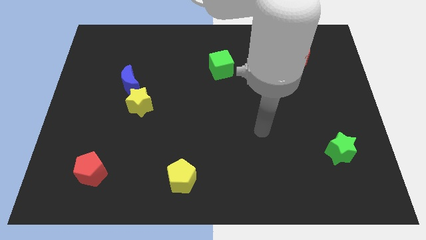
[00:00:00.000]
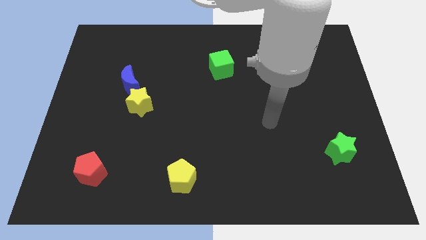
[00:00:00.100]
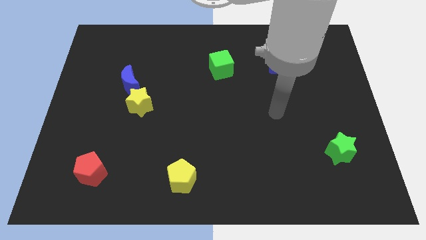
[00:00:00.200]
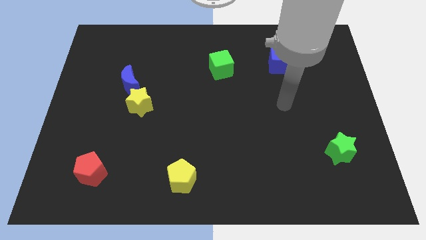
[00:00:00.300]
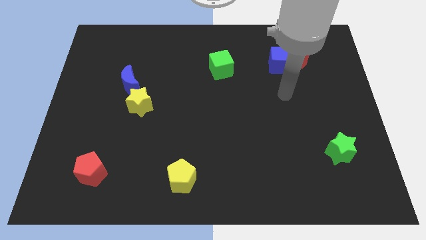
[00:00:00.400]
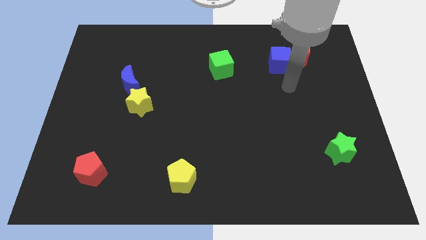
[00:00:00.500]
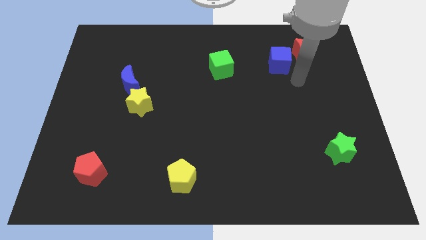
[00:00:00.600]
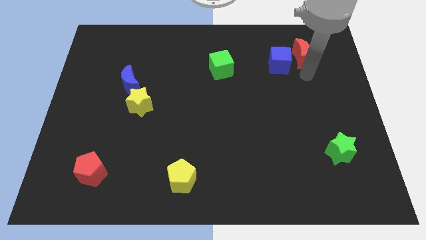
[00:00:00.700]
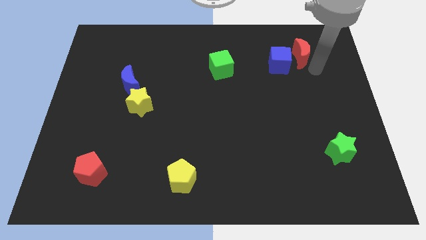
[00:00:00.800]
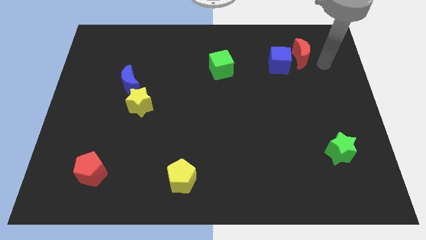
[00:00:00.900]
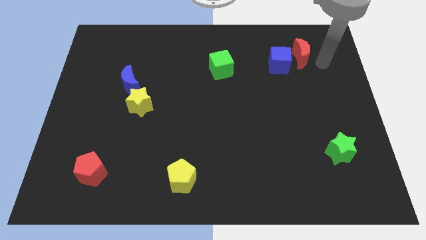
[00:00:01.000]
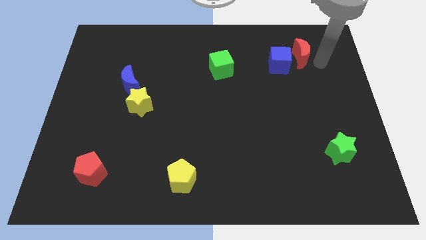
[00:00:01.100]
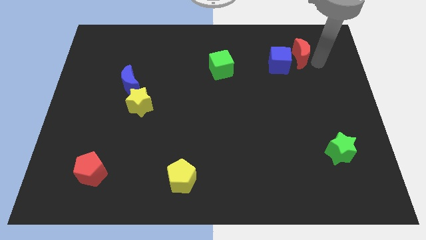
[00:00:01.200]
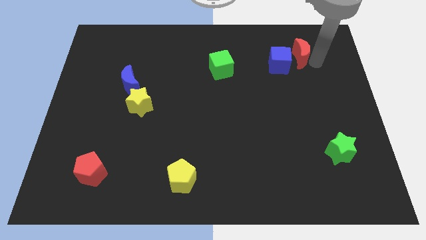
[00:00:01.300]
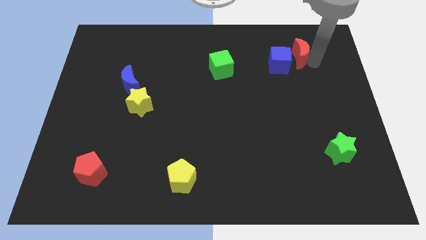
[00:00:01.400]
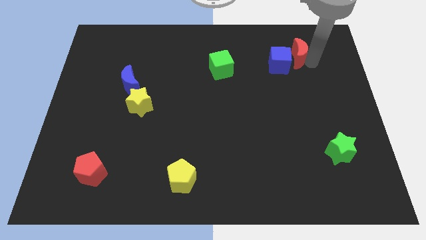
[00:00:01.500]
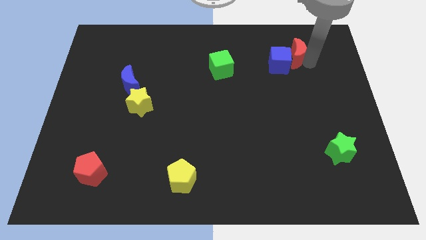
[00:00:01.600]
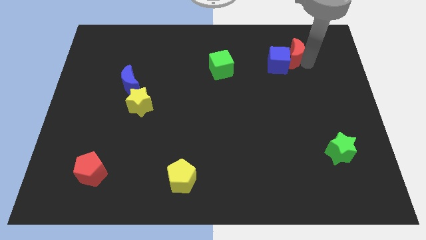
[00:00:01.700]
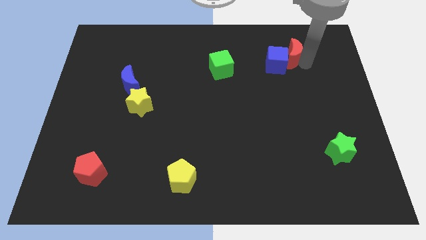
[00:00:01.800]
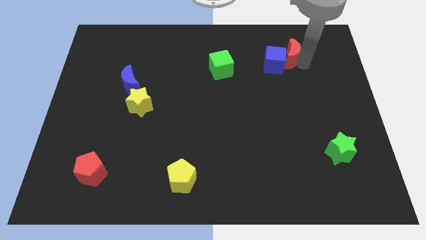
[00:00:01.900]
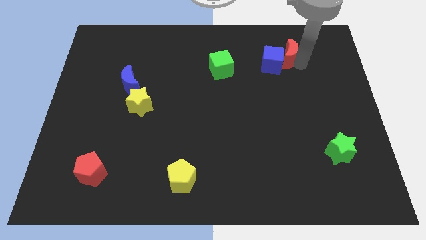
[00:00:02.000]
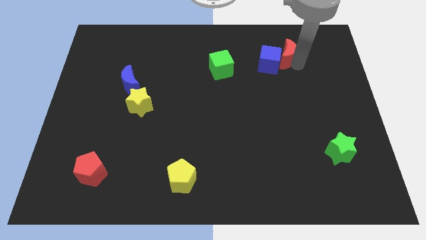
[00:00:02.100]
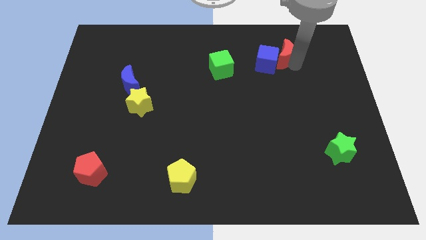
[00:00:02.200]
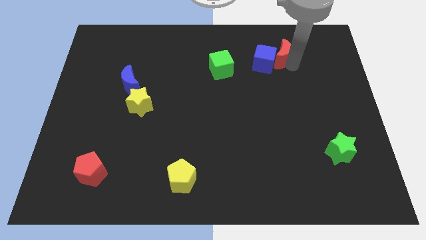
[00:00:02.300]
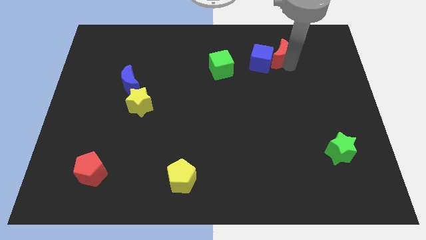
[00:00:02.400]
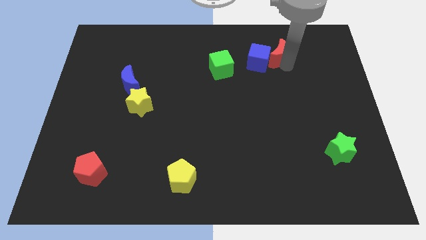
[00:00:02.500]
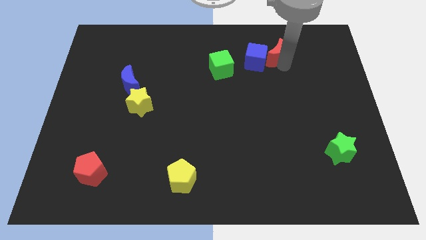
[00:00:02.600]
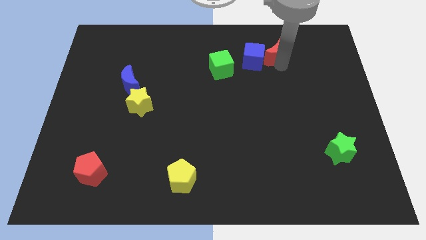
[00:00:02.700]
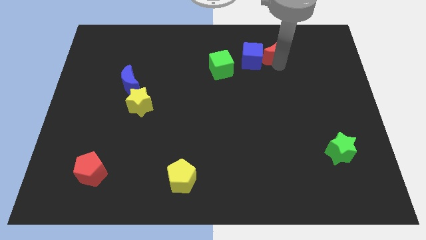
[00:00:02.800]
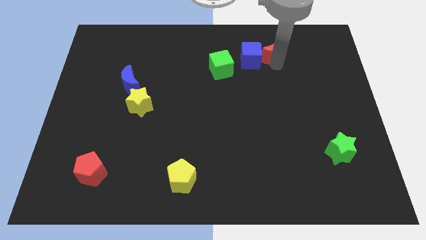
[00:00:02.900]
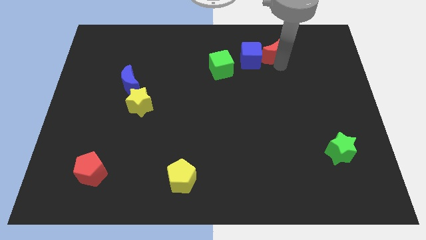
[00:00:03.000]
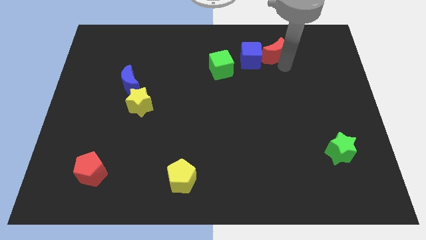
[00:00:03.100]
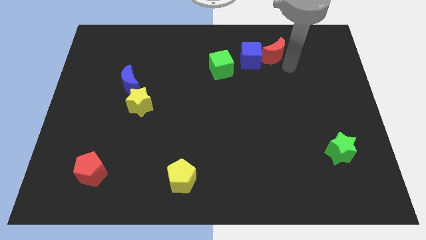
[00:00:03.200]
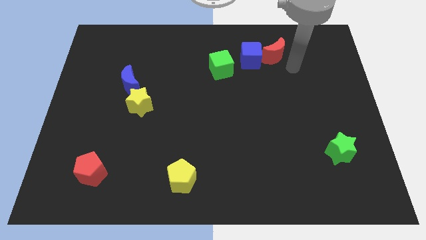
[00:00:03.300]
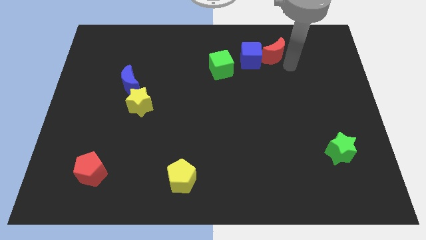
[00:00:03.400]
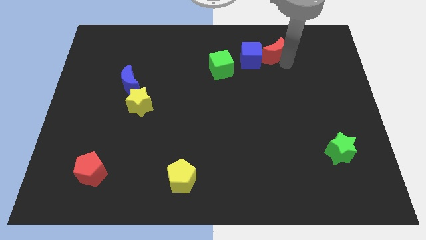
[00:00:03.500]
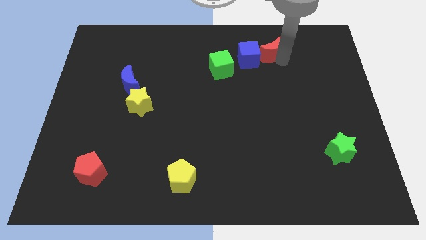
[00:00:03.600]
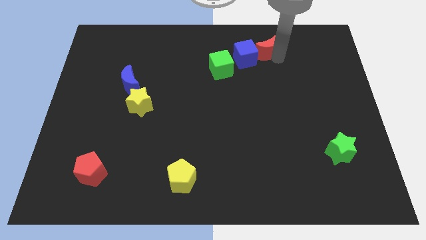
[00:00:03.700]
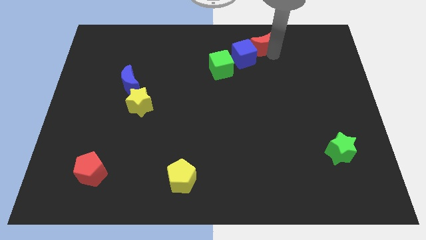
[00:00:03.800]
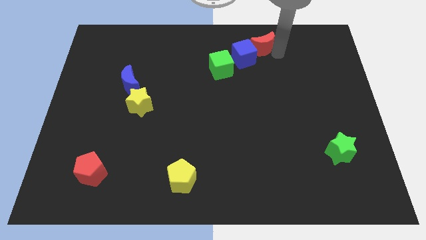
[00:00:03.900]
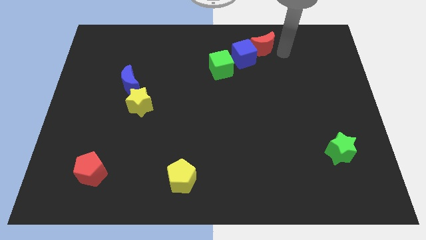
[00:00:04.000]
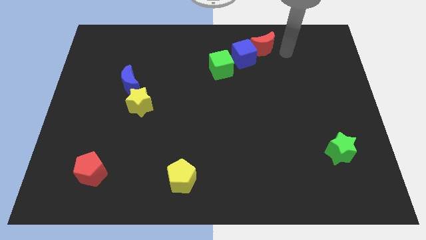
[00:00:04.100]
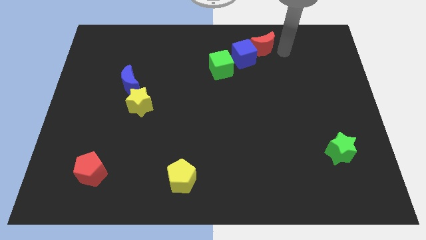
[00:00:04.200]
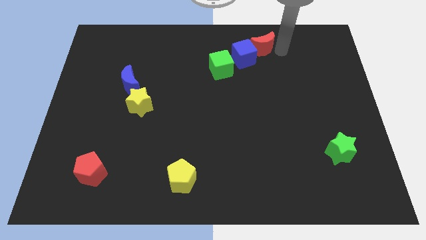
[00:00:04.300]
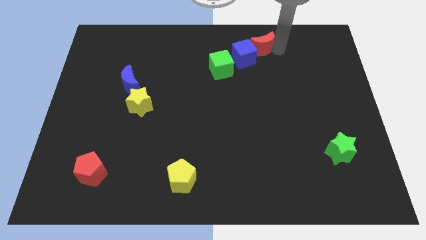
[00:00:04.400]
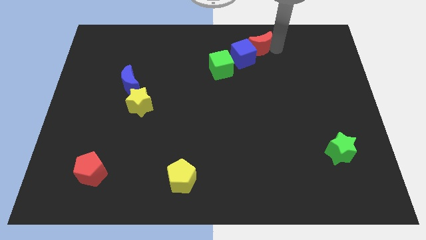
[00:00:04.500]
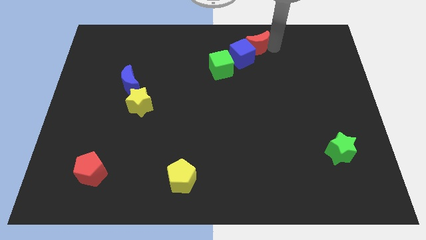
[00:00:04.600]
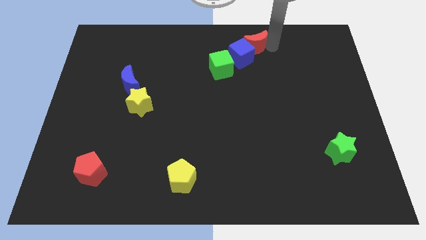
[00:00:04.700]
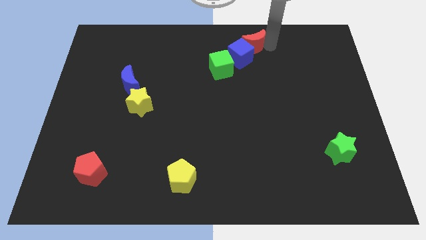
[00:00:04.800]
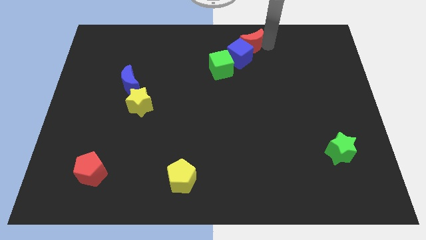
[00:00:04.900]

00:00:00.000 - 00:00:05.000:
move the red moon to the top

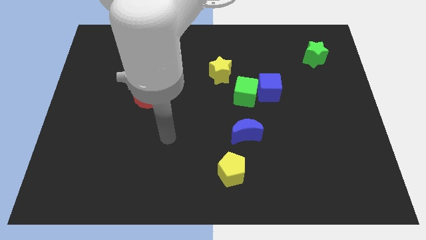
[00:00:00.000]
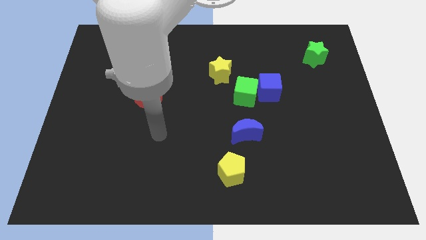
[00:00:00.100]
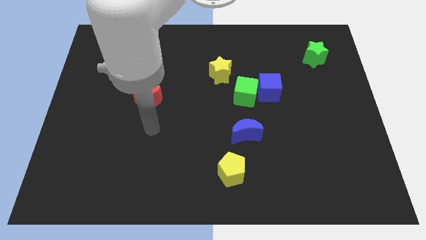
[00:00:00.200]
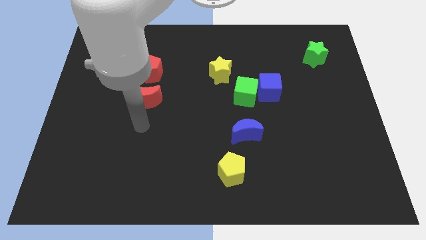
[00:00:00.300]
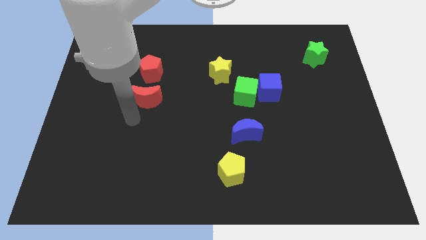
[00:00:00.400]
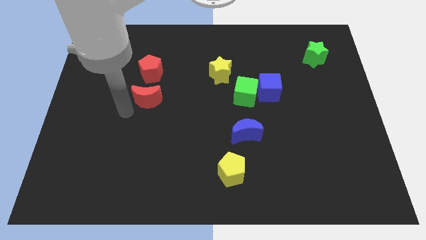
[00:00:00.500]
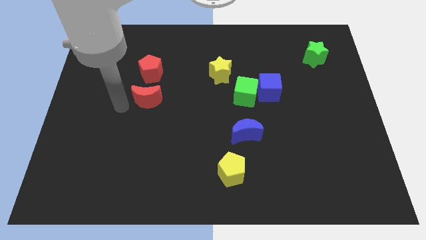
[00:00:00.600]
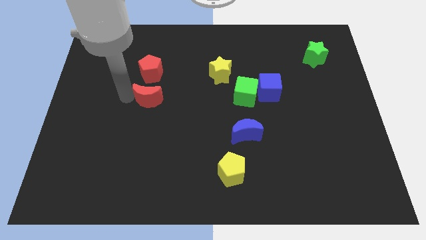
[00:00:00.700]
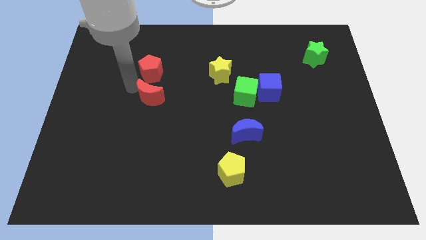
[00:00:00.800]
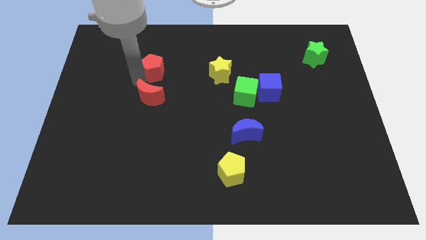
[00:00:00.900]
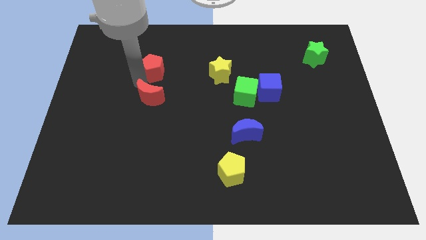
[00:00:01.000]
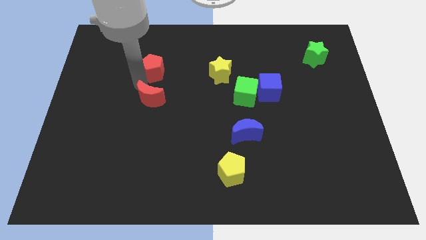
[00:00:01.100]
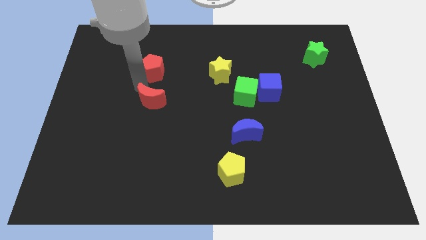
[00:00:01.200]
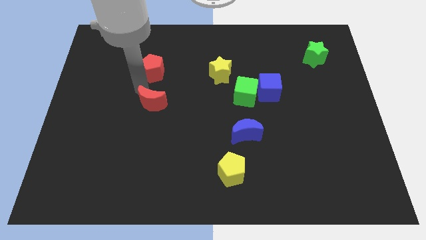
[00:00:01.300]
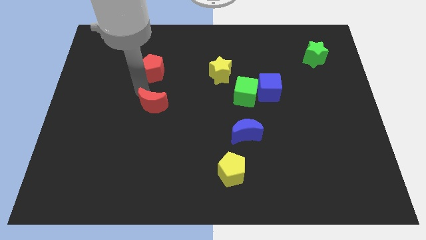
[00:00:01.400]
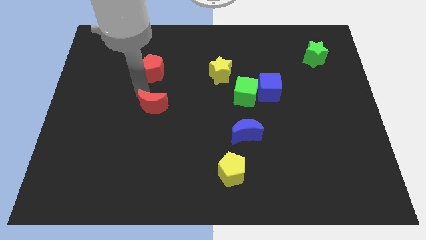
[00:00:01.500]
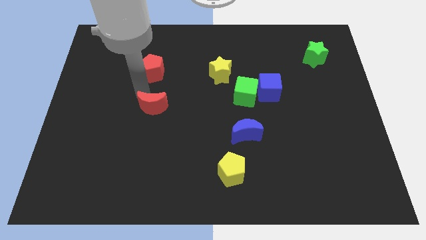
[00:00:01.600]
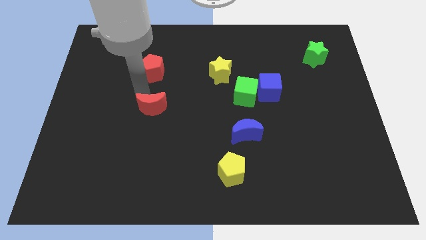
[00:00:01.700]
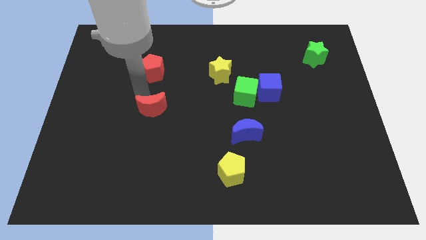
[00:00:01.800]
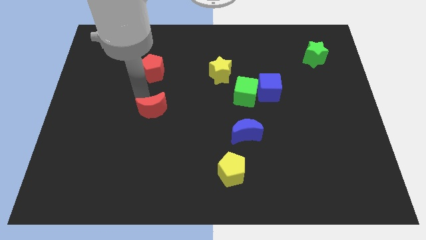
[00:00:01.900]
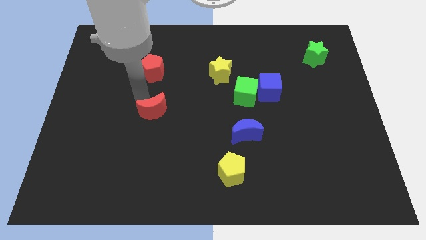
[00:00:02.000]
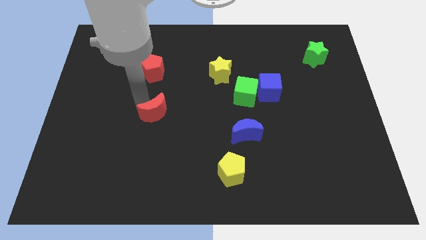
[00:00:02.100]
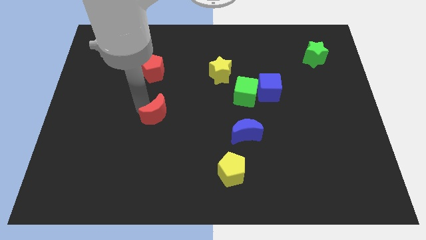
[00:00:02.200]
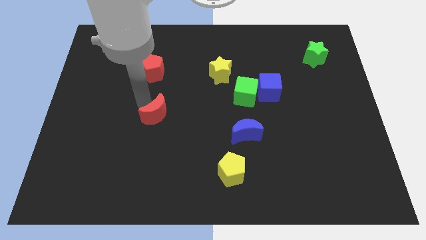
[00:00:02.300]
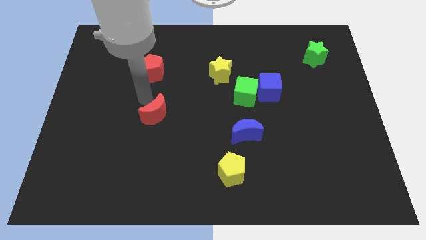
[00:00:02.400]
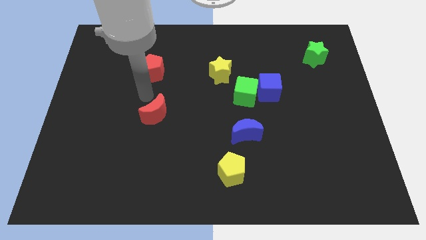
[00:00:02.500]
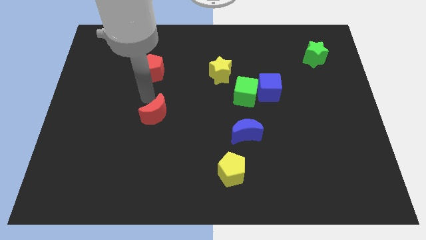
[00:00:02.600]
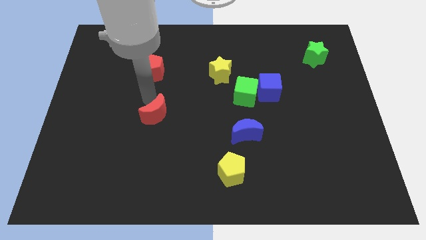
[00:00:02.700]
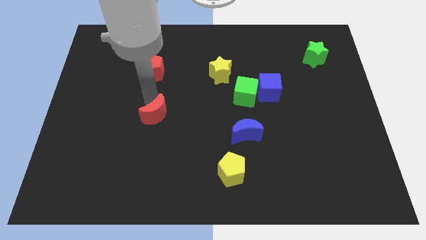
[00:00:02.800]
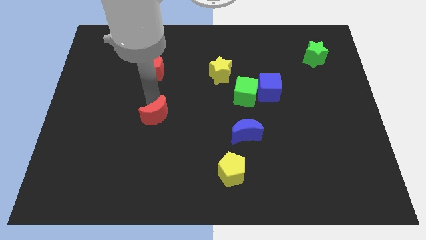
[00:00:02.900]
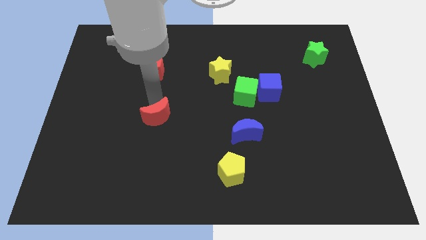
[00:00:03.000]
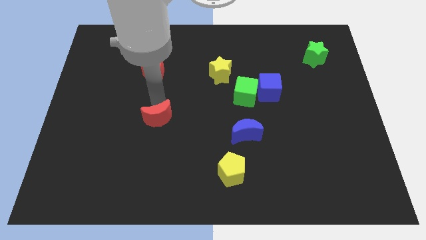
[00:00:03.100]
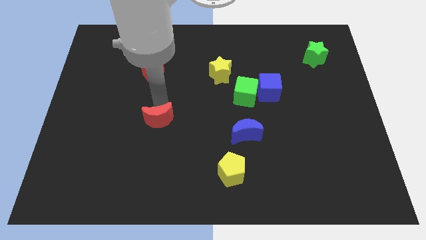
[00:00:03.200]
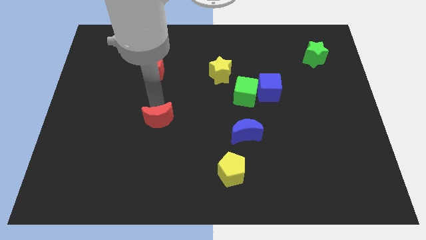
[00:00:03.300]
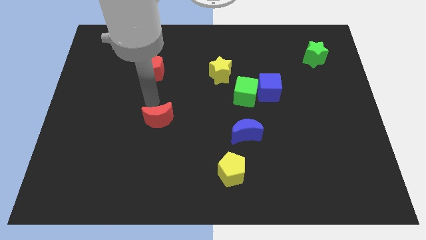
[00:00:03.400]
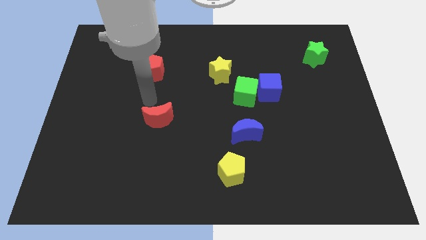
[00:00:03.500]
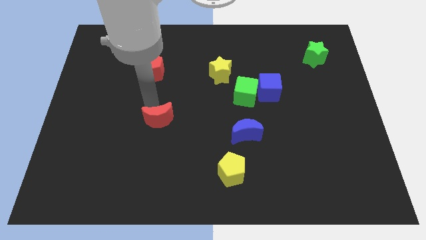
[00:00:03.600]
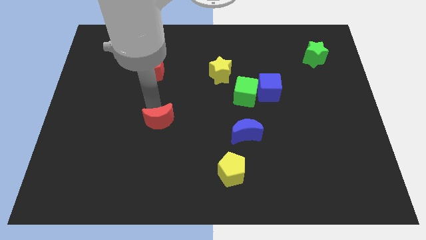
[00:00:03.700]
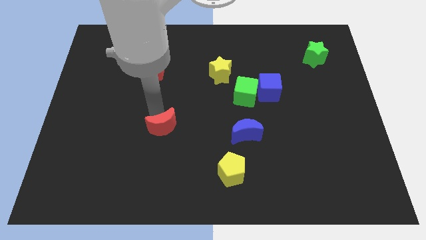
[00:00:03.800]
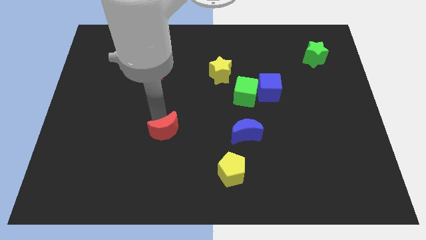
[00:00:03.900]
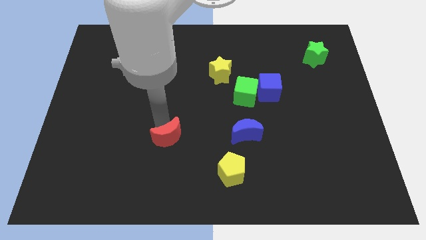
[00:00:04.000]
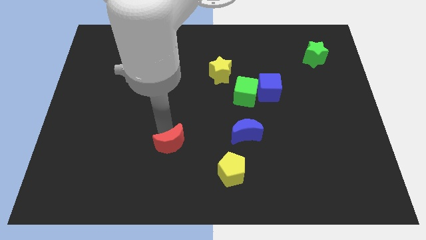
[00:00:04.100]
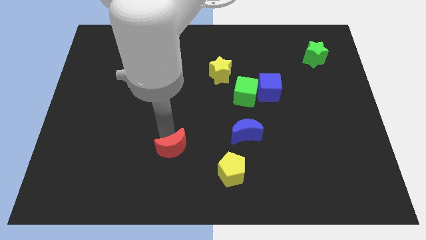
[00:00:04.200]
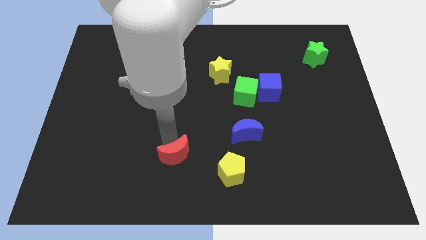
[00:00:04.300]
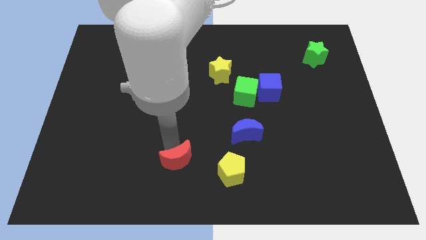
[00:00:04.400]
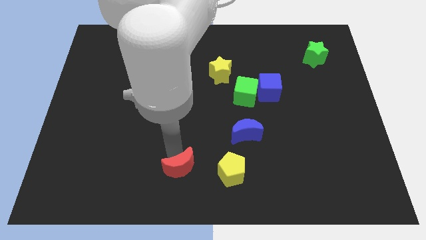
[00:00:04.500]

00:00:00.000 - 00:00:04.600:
move the red moon to the bottom side
